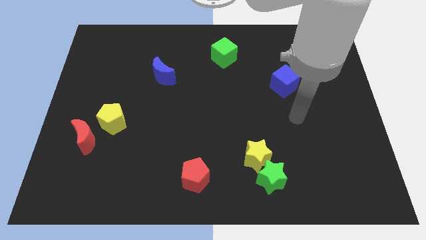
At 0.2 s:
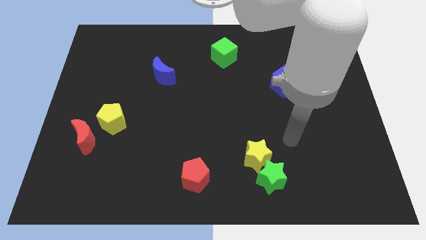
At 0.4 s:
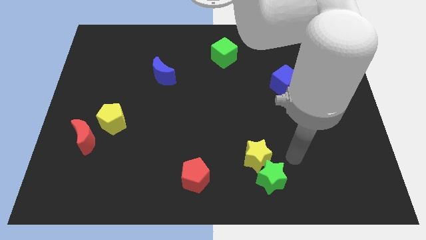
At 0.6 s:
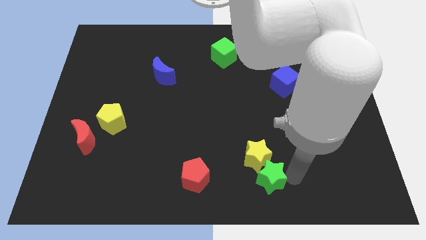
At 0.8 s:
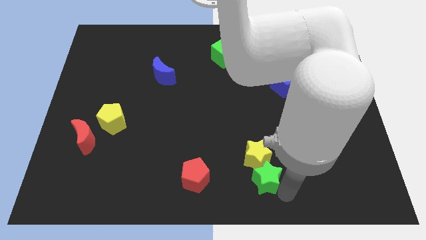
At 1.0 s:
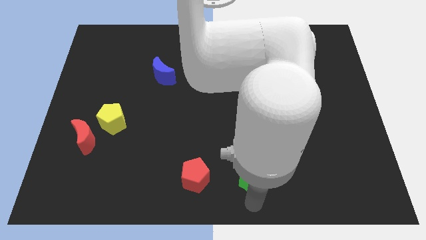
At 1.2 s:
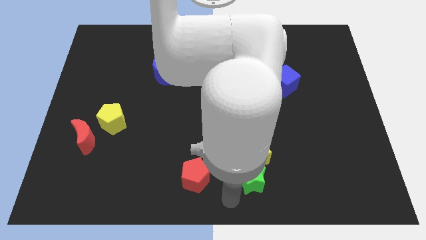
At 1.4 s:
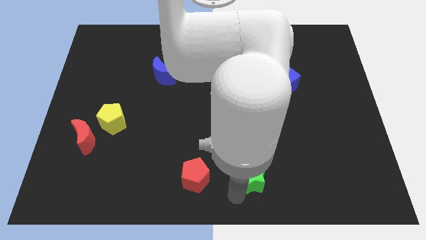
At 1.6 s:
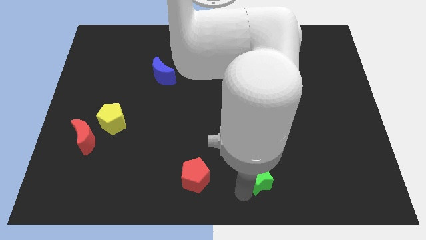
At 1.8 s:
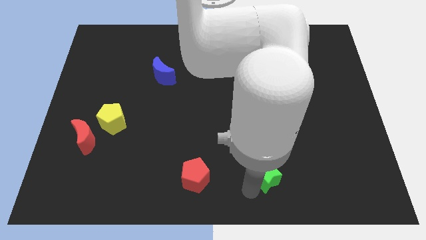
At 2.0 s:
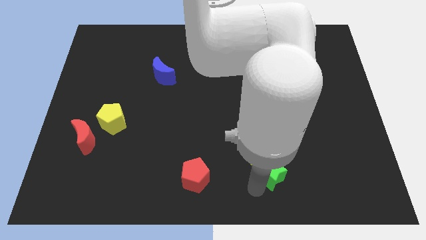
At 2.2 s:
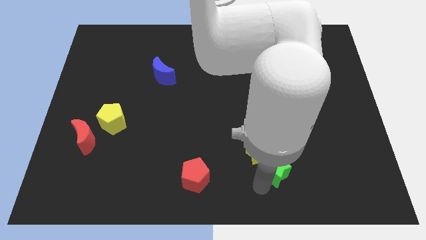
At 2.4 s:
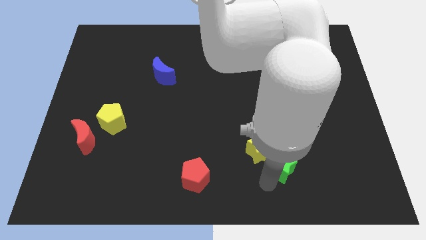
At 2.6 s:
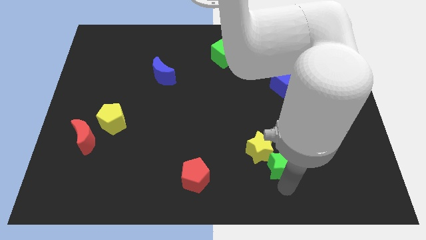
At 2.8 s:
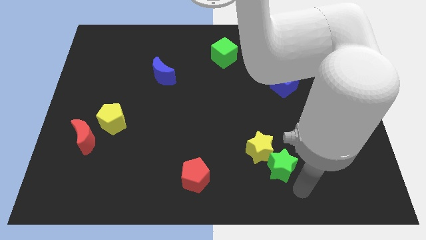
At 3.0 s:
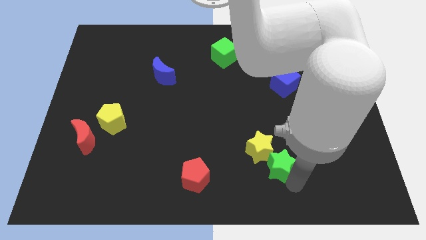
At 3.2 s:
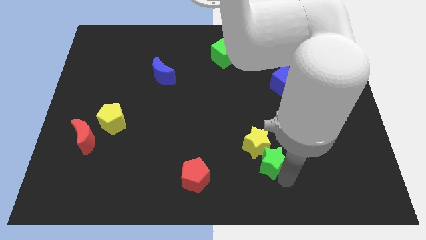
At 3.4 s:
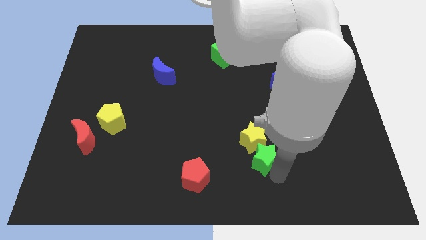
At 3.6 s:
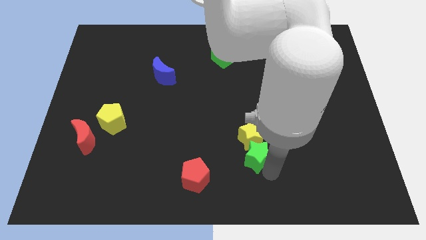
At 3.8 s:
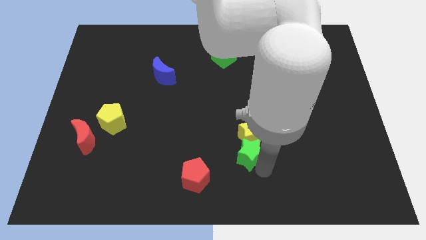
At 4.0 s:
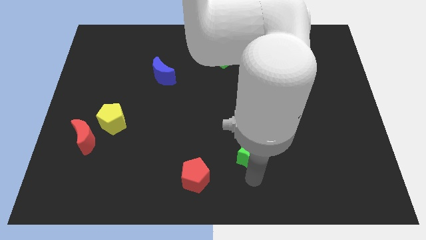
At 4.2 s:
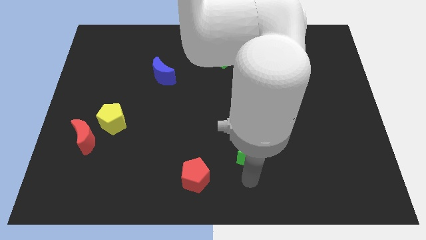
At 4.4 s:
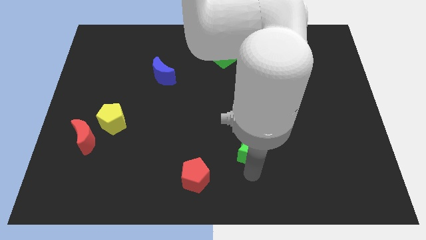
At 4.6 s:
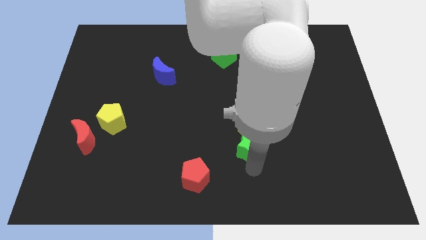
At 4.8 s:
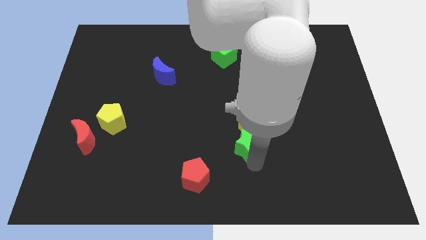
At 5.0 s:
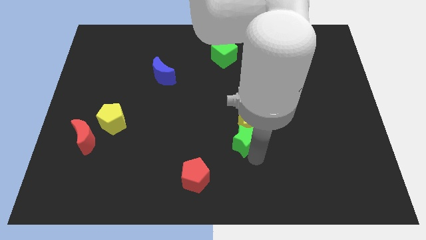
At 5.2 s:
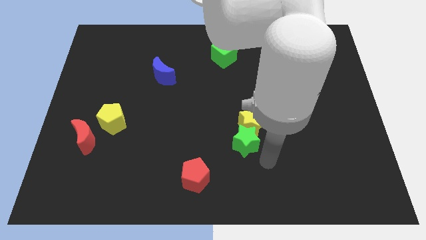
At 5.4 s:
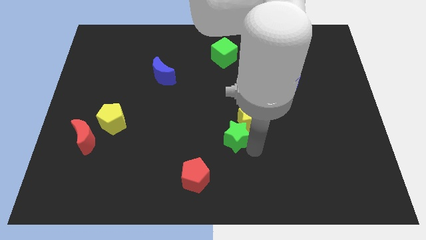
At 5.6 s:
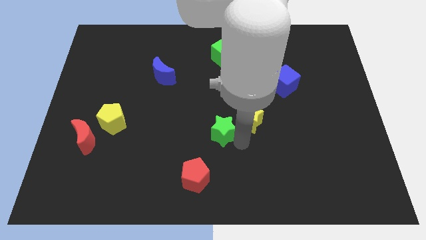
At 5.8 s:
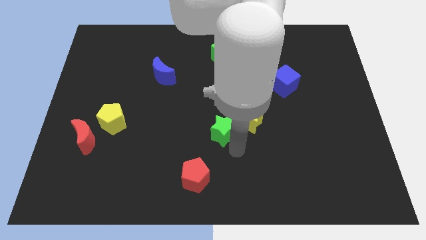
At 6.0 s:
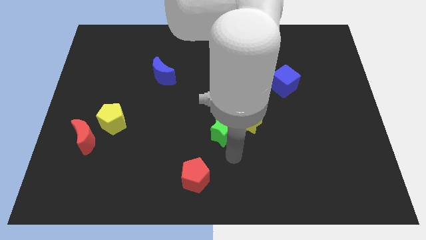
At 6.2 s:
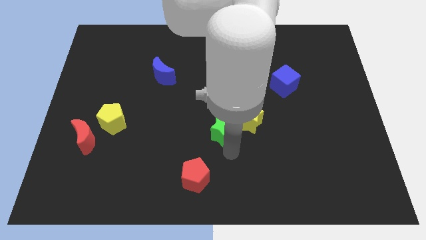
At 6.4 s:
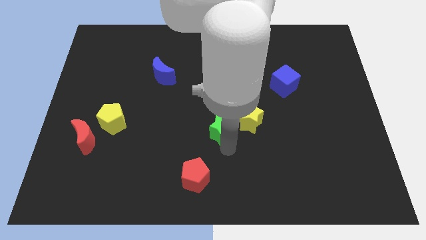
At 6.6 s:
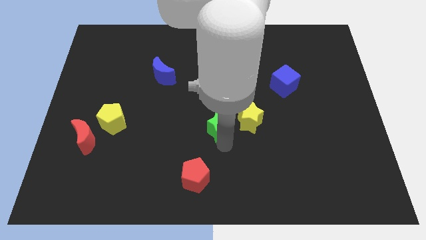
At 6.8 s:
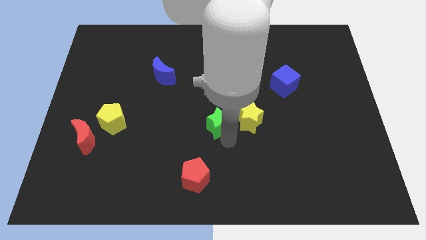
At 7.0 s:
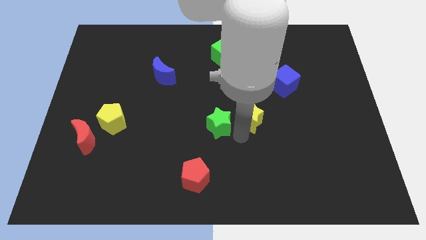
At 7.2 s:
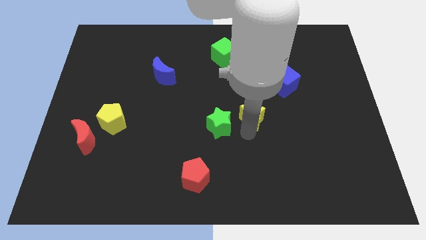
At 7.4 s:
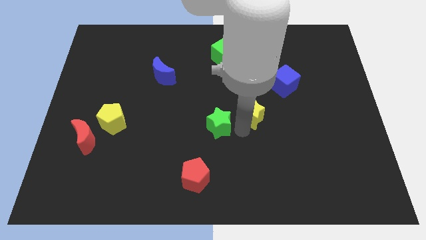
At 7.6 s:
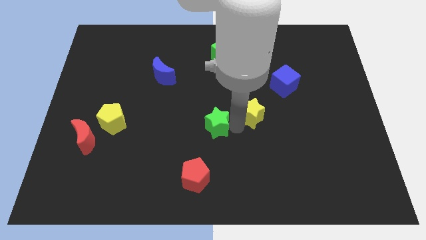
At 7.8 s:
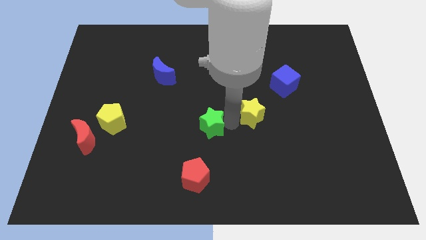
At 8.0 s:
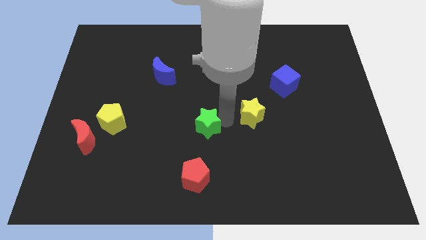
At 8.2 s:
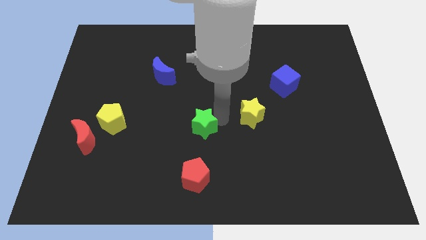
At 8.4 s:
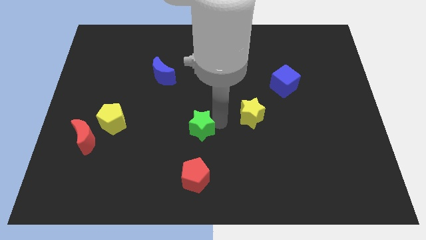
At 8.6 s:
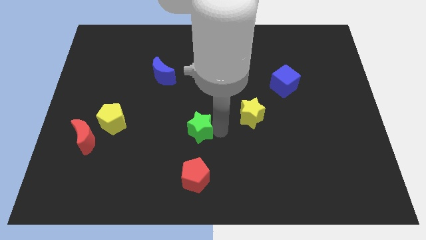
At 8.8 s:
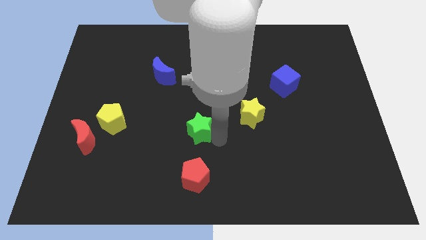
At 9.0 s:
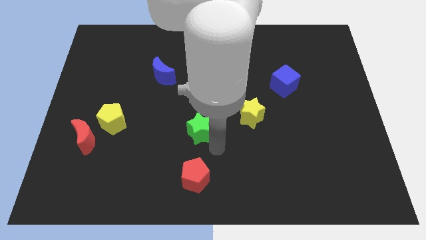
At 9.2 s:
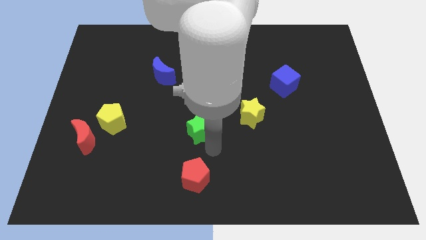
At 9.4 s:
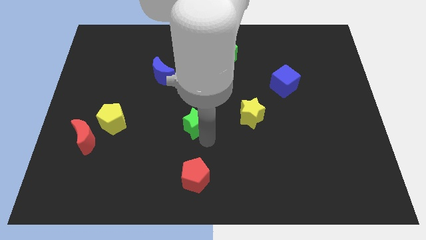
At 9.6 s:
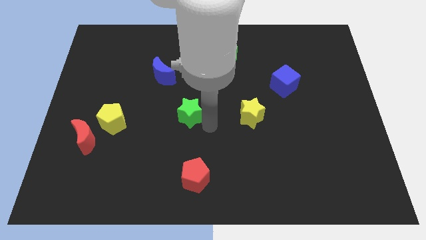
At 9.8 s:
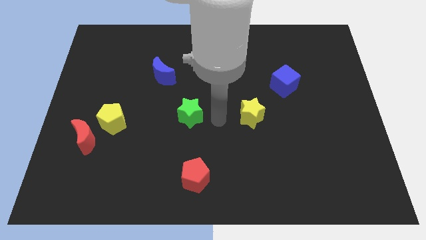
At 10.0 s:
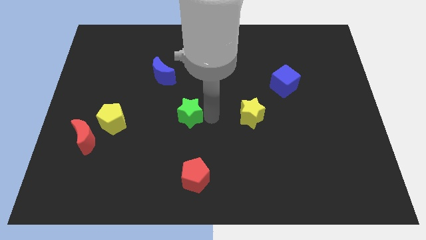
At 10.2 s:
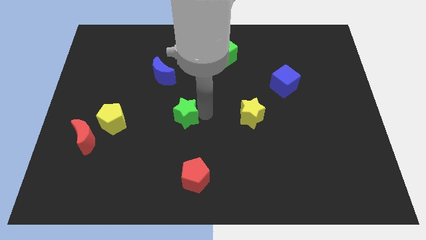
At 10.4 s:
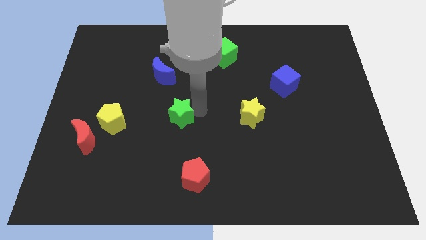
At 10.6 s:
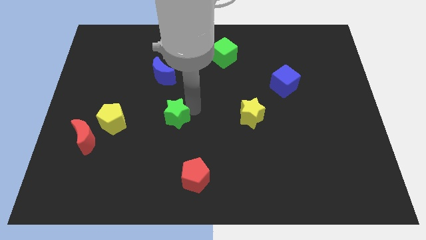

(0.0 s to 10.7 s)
move the green star to the bottom of the blue moon

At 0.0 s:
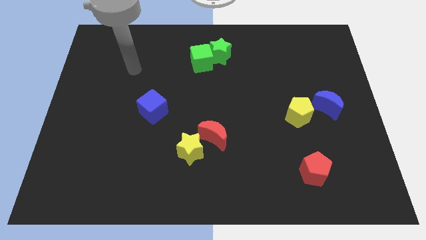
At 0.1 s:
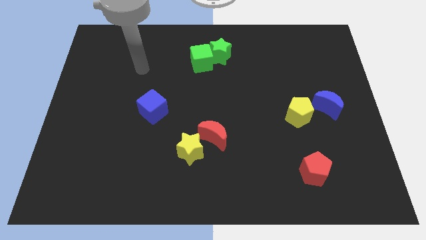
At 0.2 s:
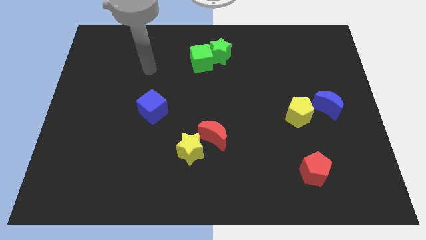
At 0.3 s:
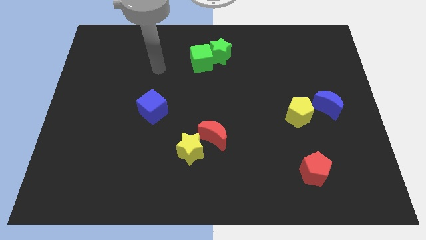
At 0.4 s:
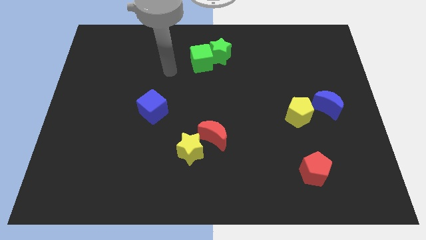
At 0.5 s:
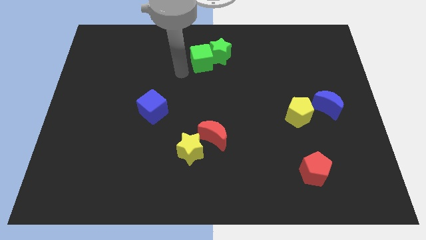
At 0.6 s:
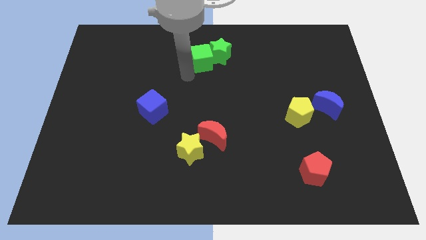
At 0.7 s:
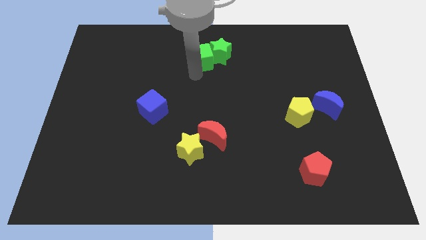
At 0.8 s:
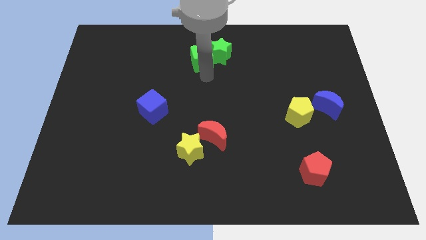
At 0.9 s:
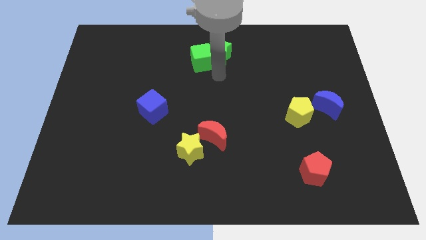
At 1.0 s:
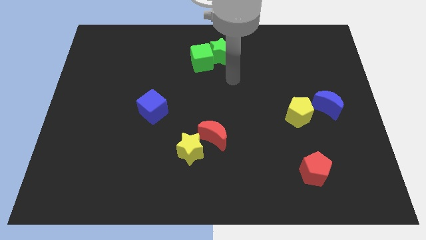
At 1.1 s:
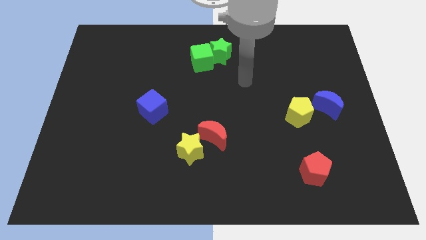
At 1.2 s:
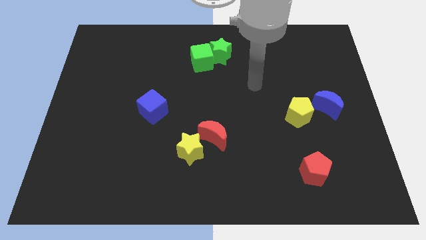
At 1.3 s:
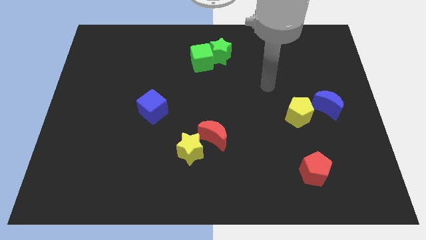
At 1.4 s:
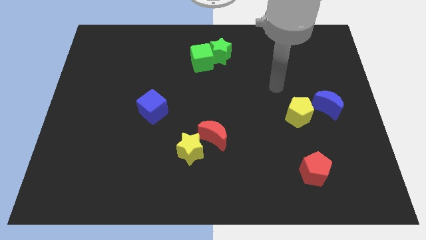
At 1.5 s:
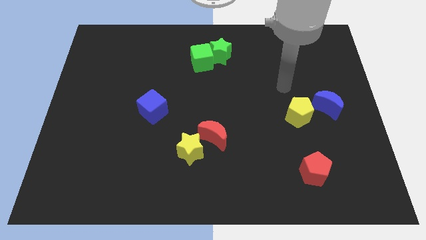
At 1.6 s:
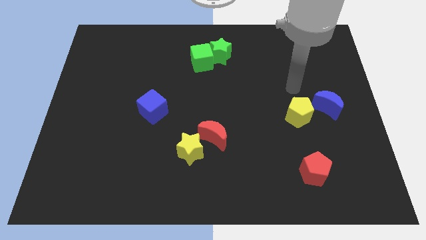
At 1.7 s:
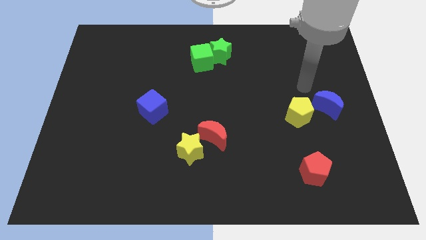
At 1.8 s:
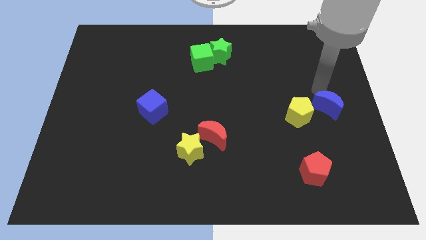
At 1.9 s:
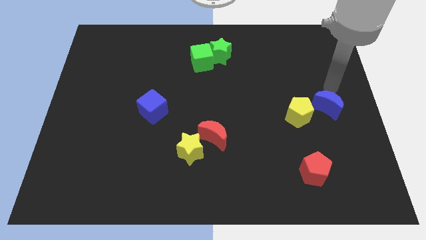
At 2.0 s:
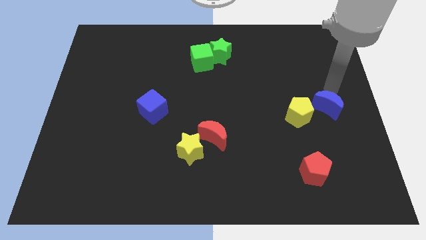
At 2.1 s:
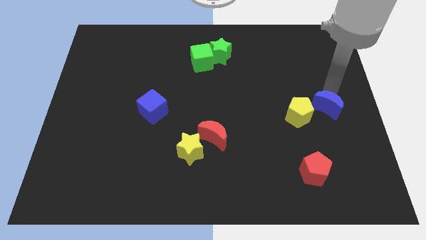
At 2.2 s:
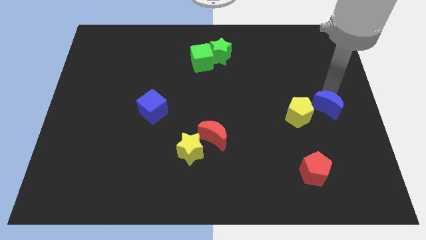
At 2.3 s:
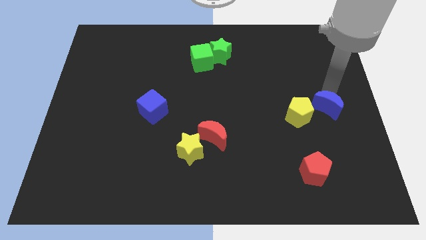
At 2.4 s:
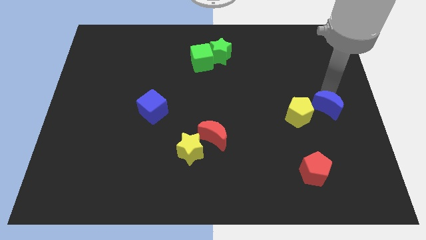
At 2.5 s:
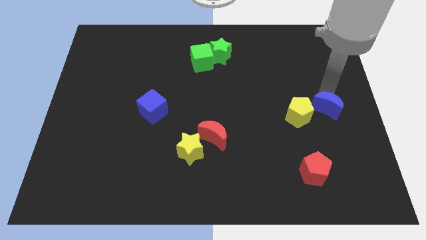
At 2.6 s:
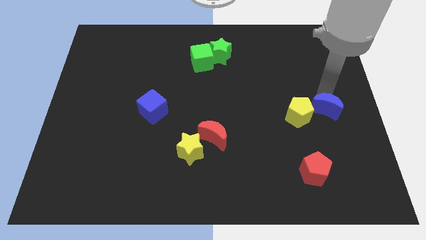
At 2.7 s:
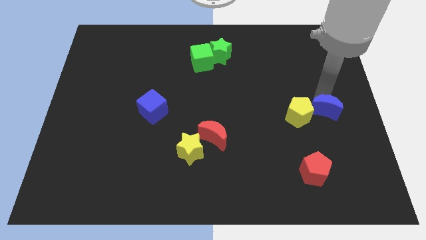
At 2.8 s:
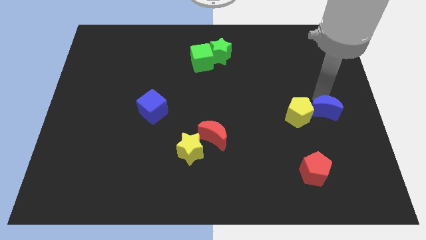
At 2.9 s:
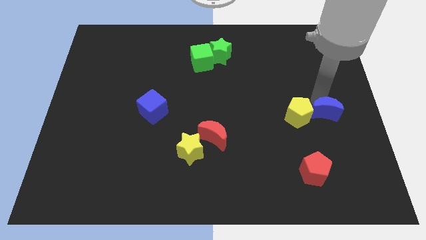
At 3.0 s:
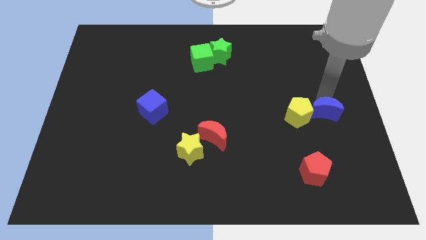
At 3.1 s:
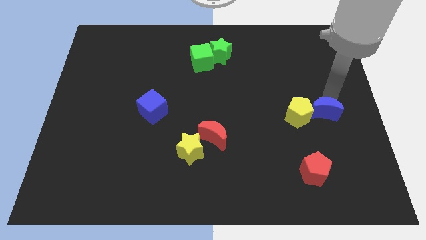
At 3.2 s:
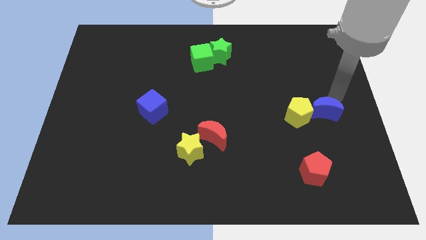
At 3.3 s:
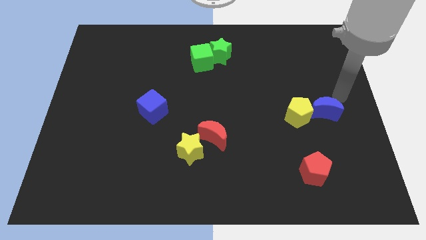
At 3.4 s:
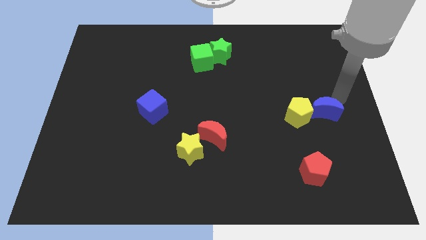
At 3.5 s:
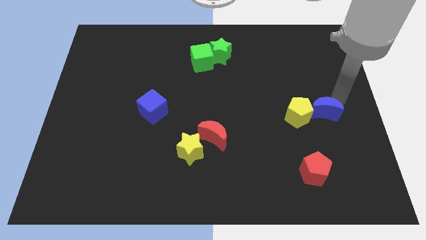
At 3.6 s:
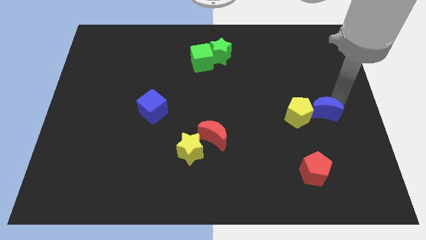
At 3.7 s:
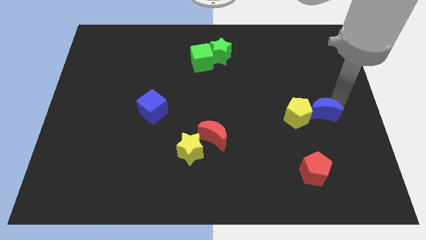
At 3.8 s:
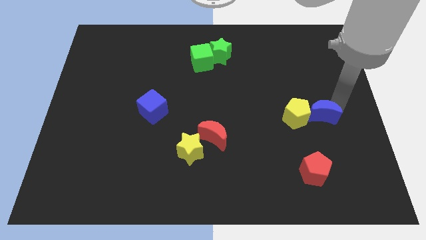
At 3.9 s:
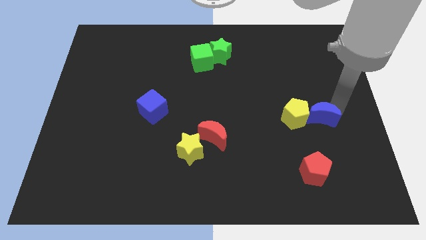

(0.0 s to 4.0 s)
slide the blue moon above the red pentagon
